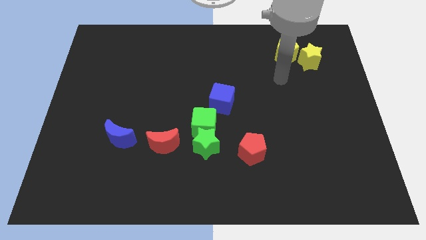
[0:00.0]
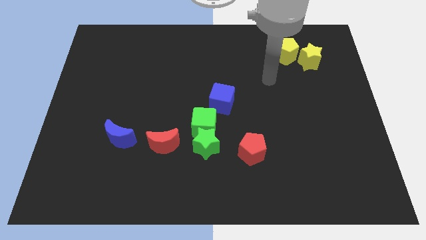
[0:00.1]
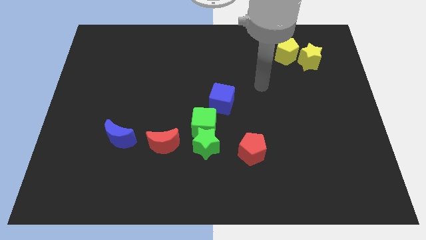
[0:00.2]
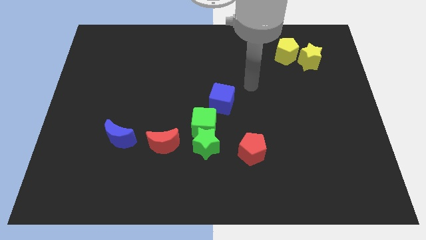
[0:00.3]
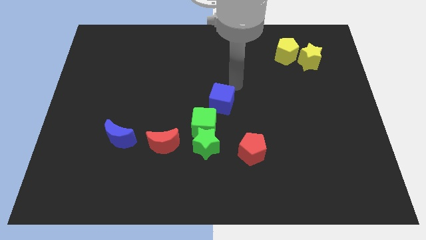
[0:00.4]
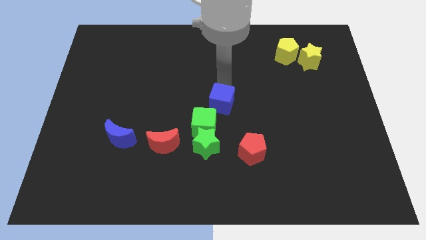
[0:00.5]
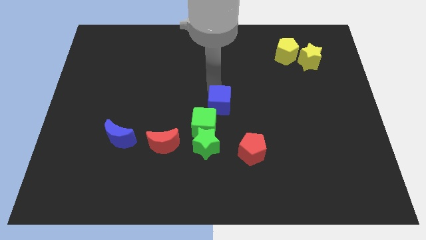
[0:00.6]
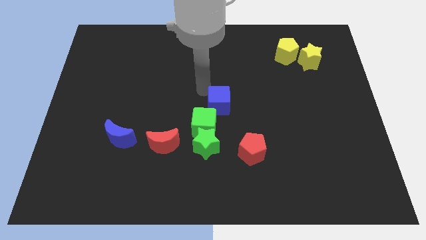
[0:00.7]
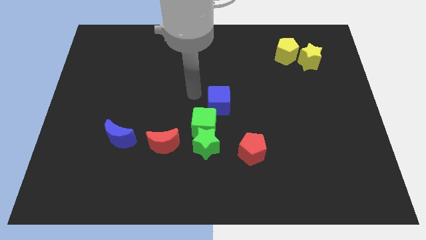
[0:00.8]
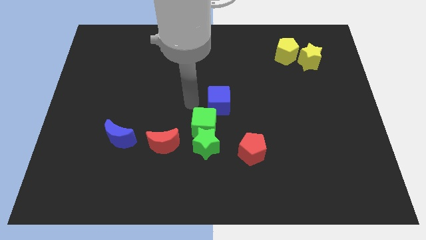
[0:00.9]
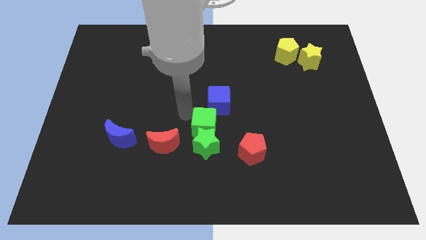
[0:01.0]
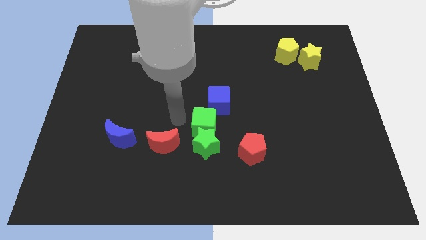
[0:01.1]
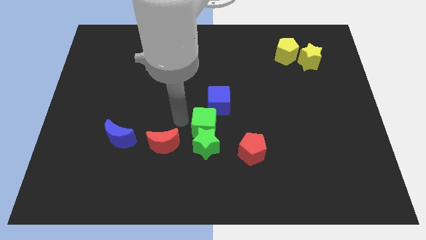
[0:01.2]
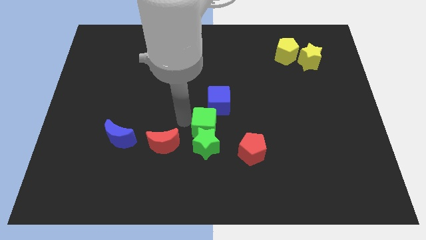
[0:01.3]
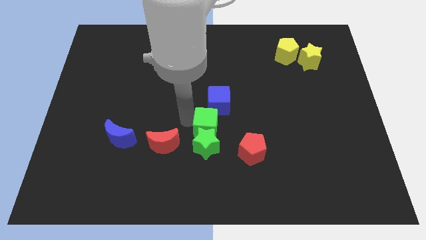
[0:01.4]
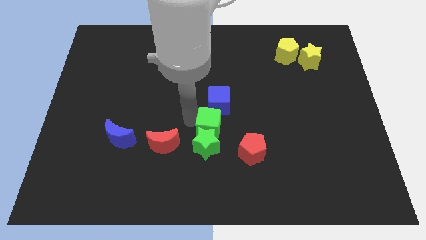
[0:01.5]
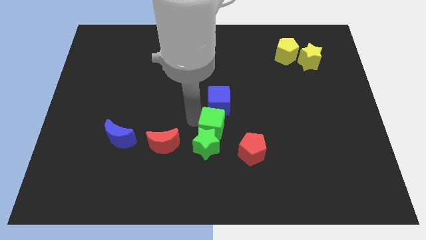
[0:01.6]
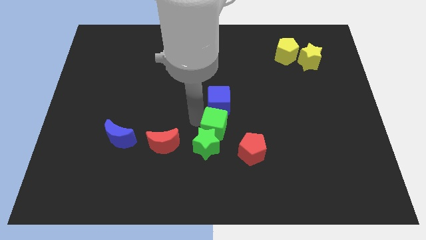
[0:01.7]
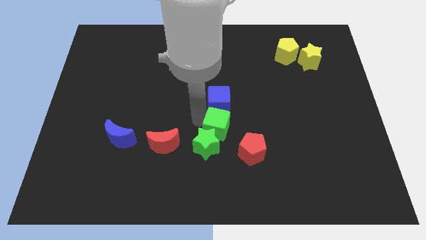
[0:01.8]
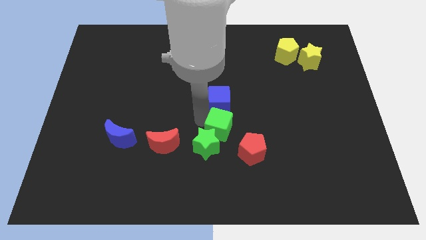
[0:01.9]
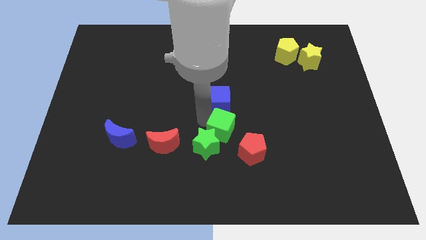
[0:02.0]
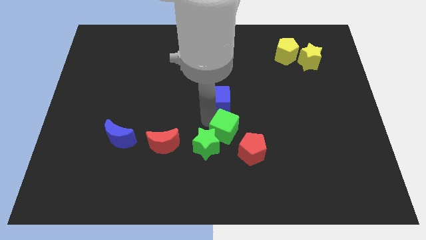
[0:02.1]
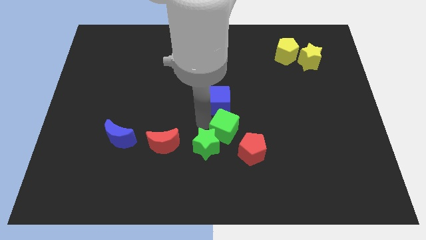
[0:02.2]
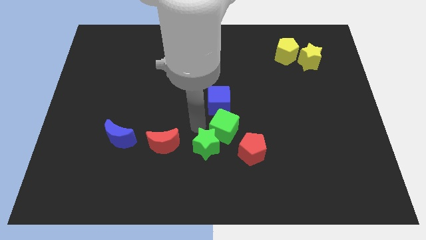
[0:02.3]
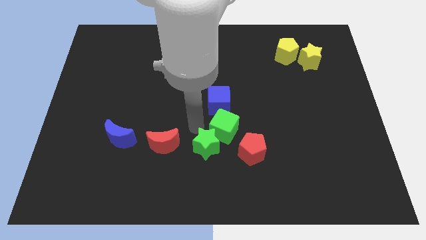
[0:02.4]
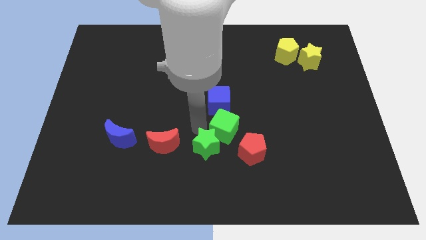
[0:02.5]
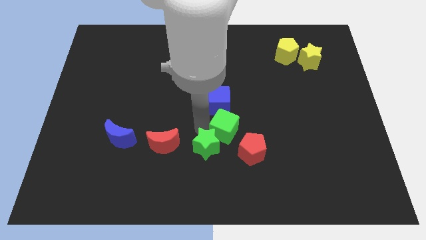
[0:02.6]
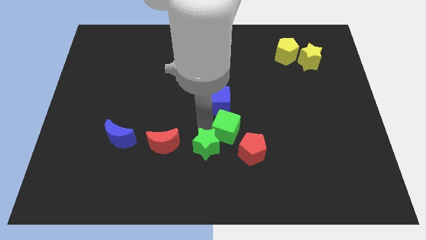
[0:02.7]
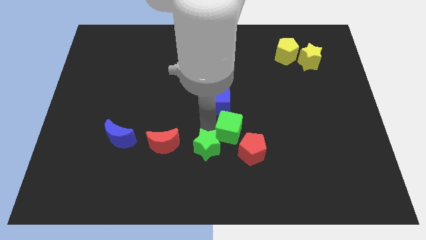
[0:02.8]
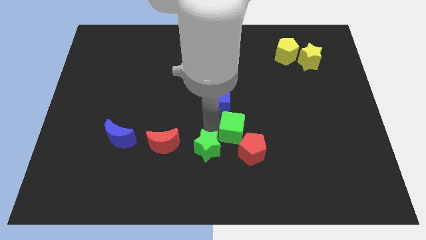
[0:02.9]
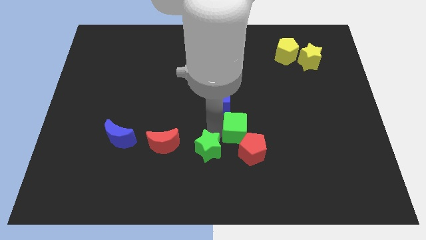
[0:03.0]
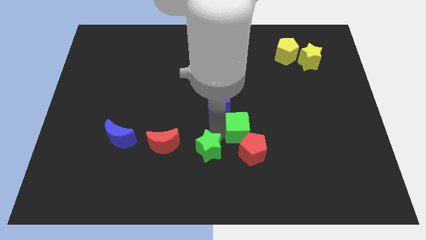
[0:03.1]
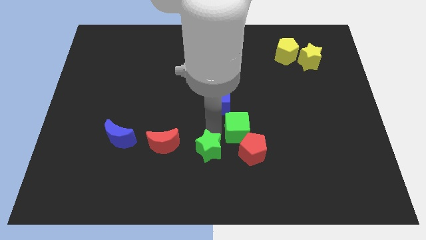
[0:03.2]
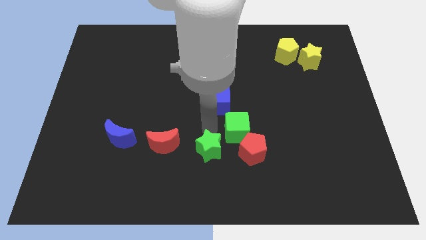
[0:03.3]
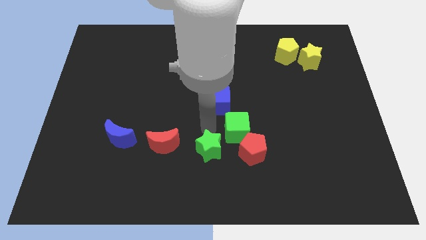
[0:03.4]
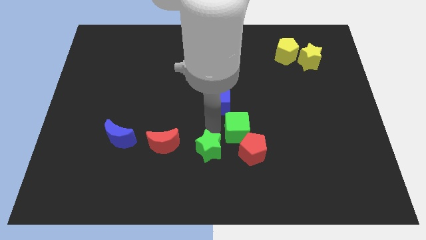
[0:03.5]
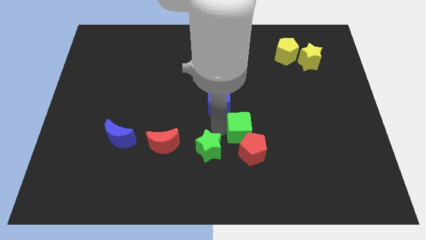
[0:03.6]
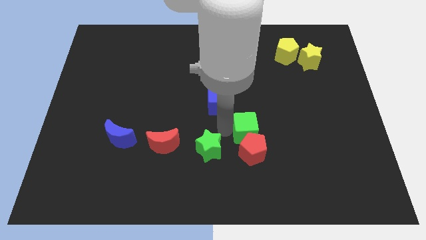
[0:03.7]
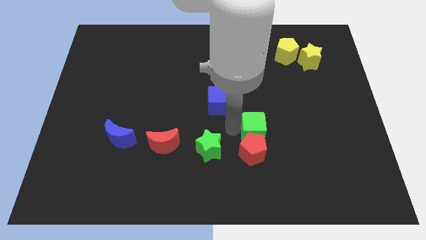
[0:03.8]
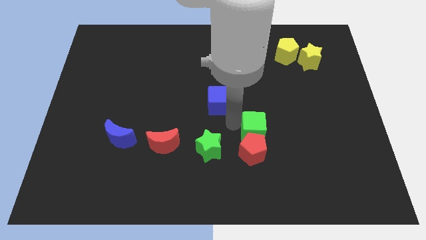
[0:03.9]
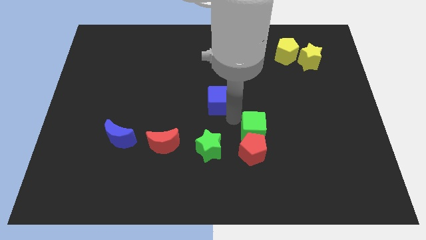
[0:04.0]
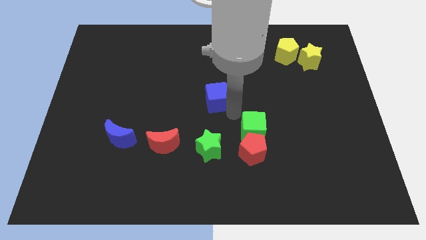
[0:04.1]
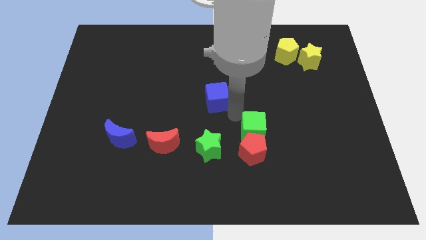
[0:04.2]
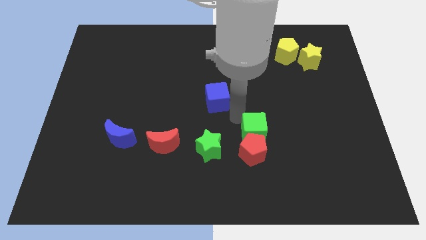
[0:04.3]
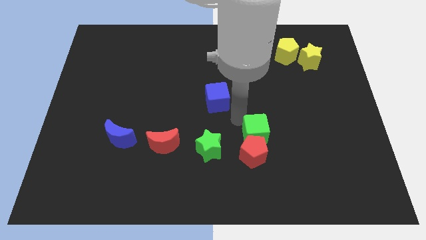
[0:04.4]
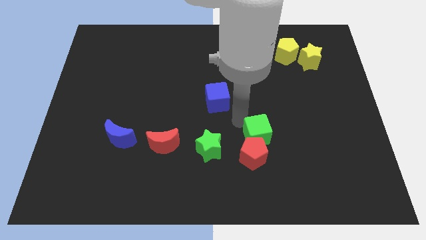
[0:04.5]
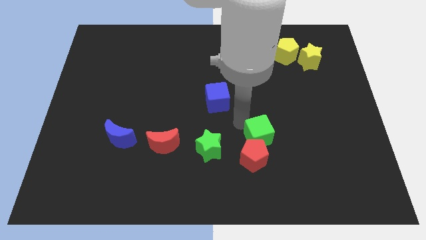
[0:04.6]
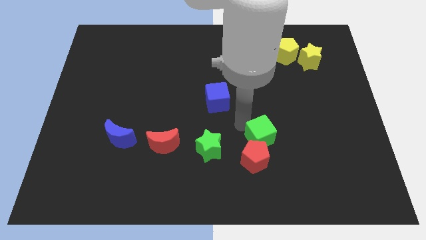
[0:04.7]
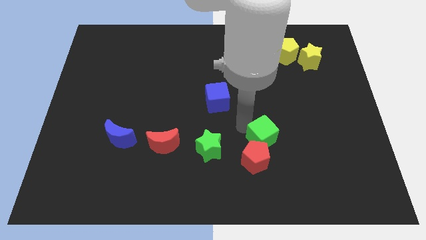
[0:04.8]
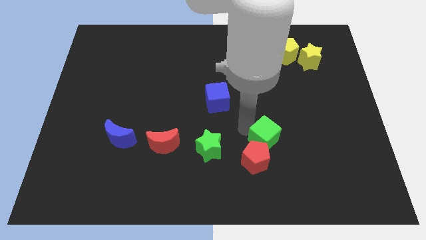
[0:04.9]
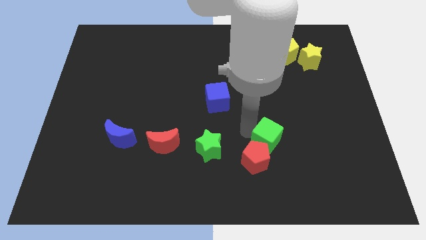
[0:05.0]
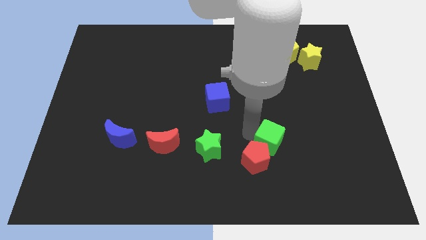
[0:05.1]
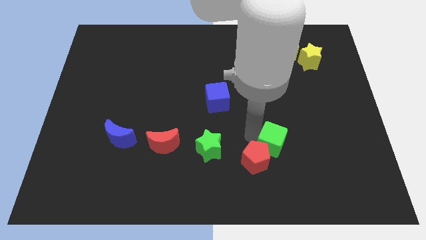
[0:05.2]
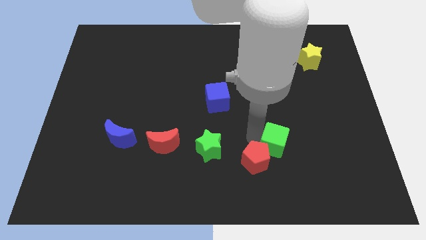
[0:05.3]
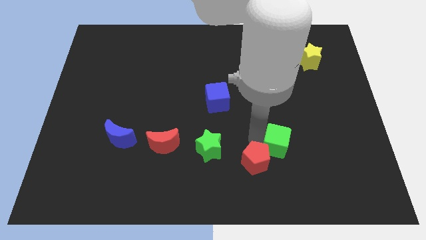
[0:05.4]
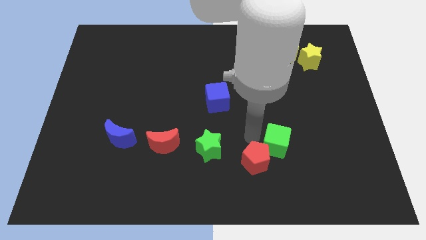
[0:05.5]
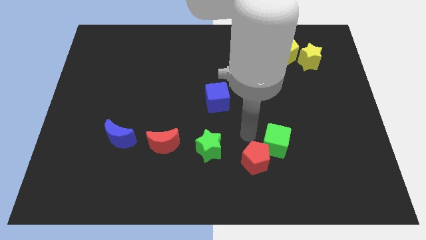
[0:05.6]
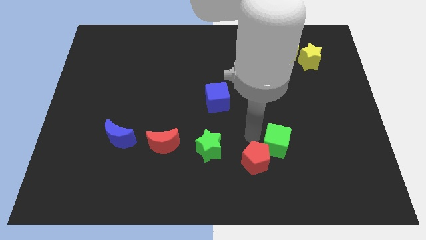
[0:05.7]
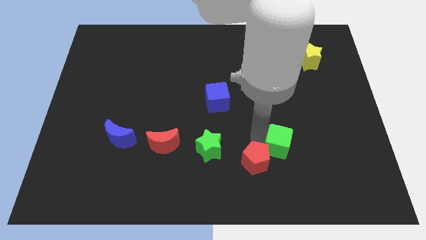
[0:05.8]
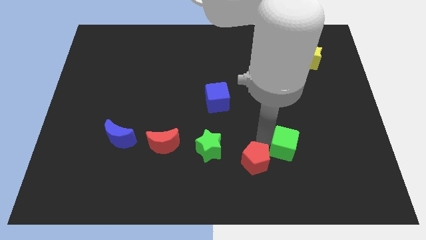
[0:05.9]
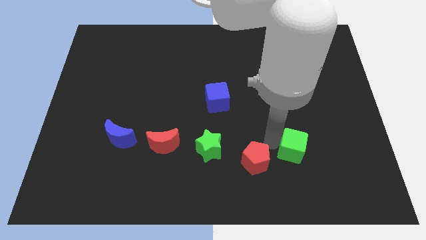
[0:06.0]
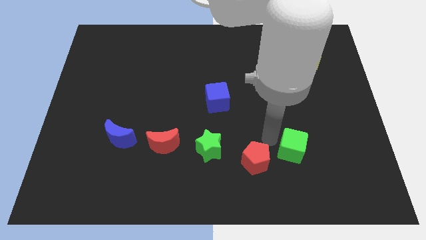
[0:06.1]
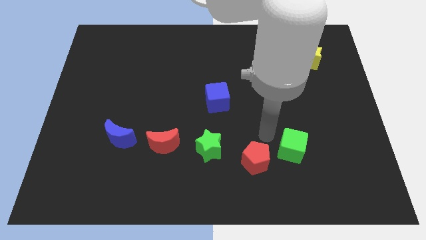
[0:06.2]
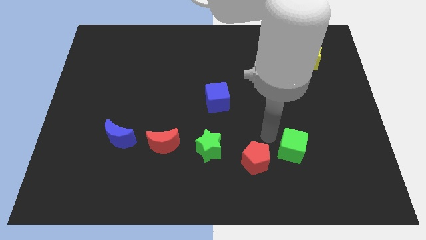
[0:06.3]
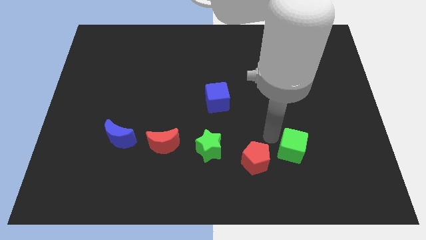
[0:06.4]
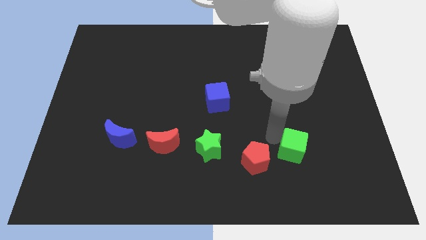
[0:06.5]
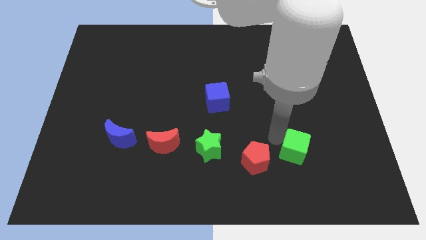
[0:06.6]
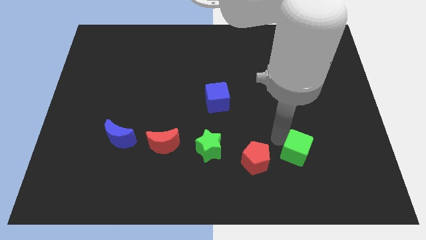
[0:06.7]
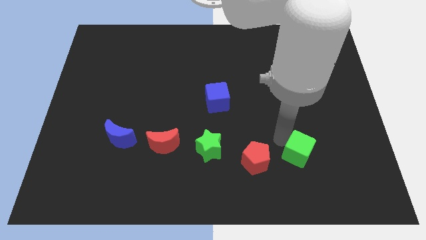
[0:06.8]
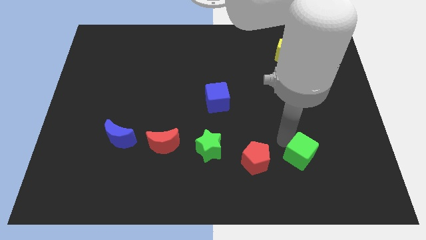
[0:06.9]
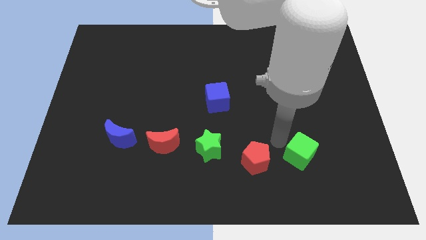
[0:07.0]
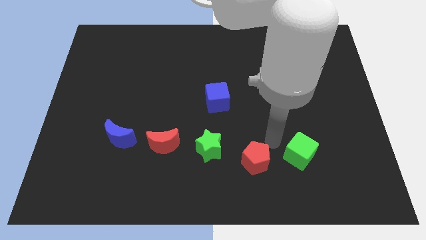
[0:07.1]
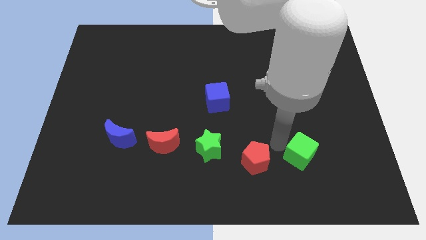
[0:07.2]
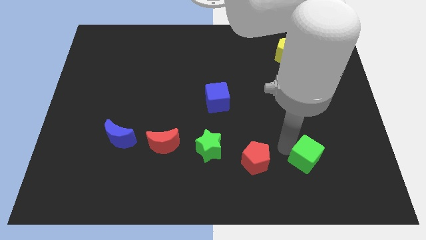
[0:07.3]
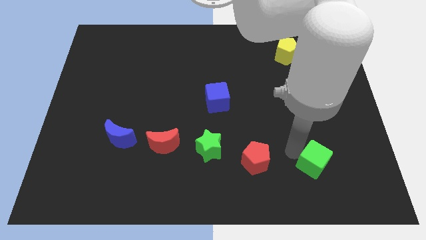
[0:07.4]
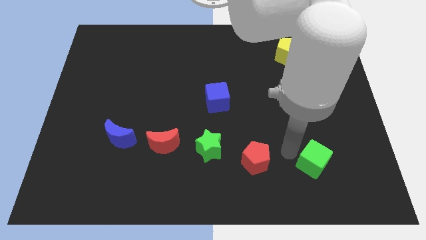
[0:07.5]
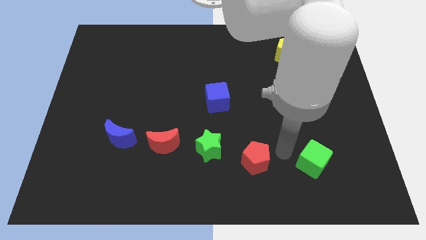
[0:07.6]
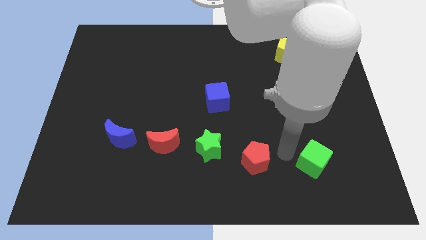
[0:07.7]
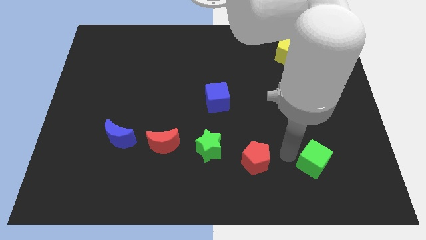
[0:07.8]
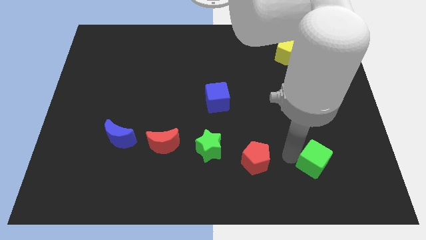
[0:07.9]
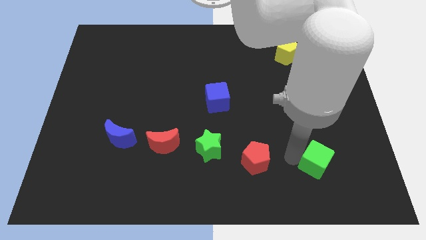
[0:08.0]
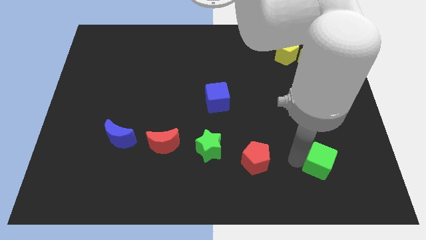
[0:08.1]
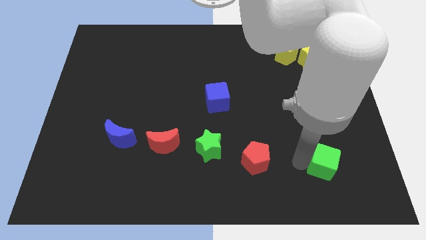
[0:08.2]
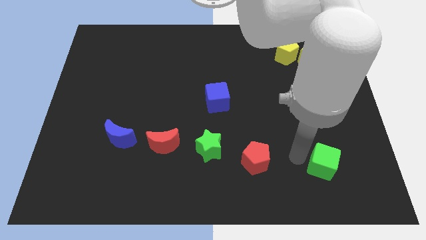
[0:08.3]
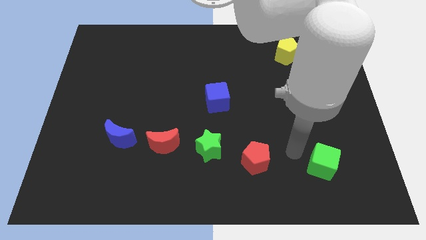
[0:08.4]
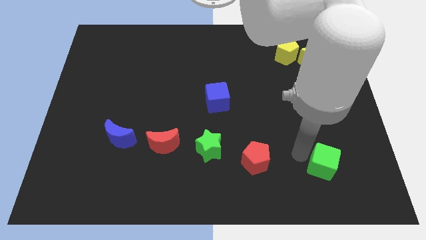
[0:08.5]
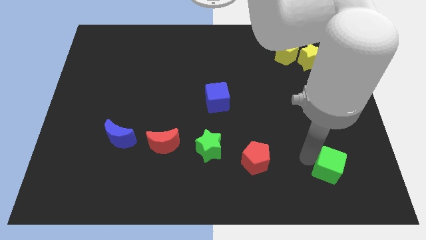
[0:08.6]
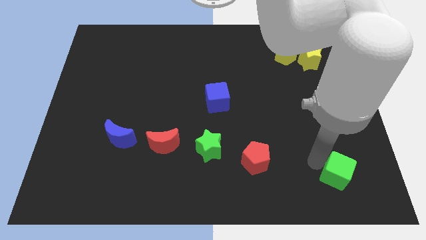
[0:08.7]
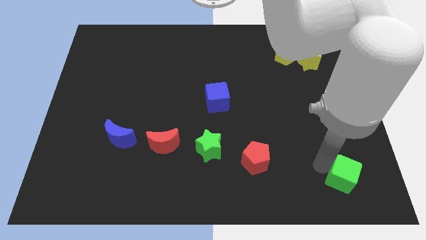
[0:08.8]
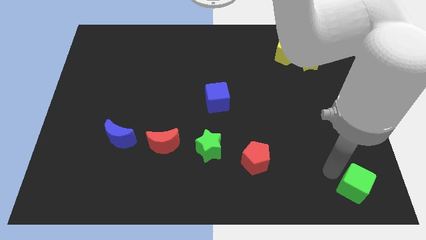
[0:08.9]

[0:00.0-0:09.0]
move the green cube to the bottom right corner
